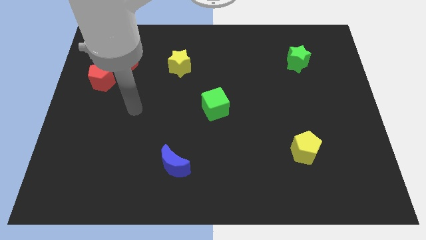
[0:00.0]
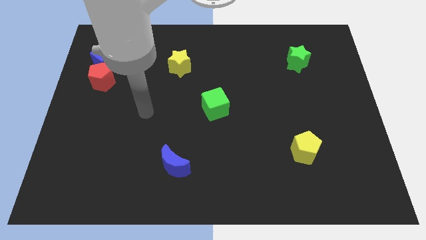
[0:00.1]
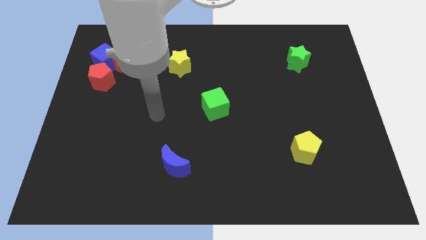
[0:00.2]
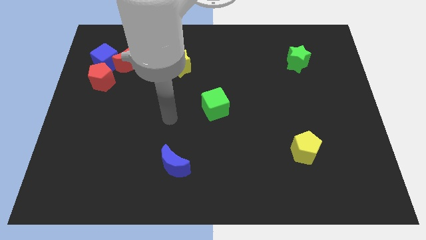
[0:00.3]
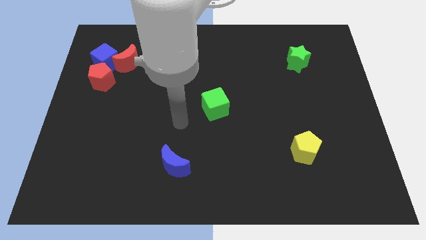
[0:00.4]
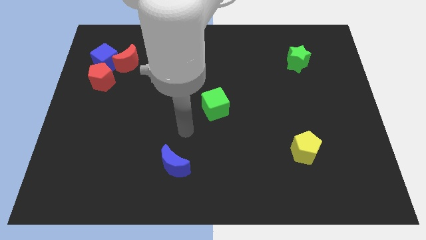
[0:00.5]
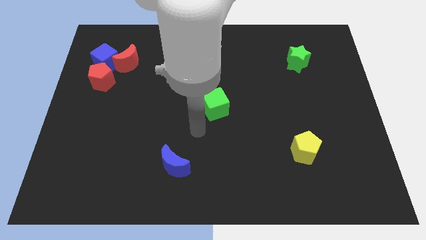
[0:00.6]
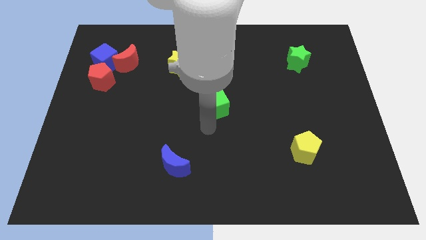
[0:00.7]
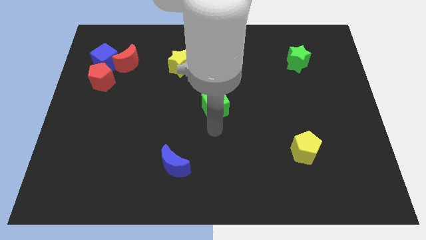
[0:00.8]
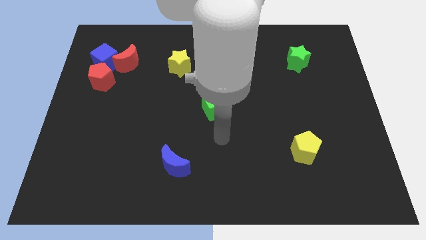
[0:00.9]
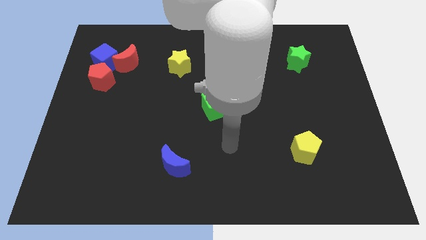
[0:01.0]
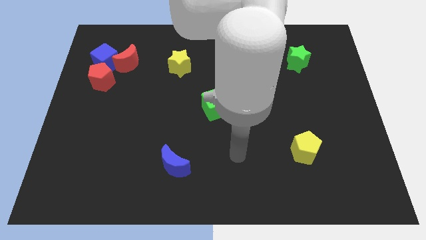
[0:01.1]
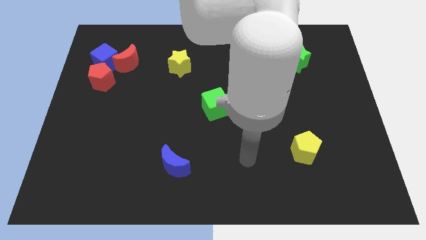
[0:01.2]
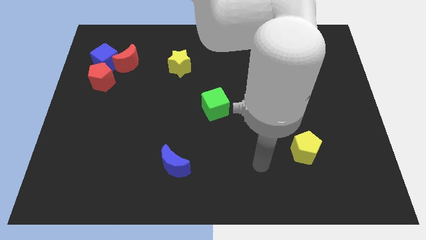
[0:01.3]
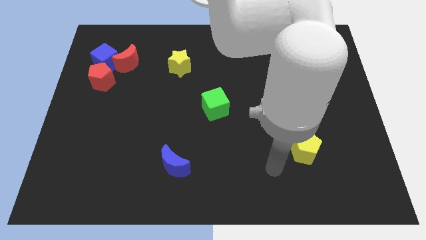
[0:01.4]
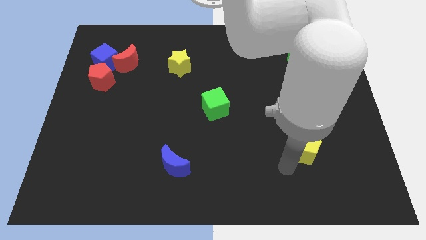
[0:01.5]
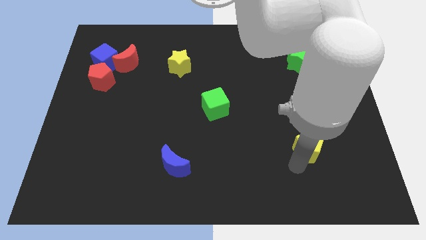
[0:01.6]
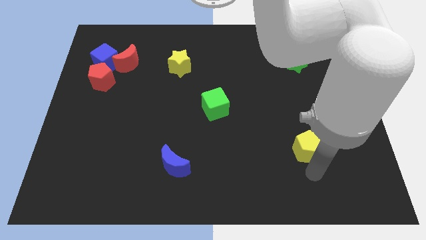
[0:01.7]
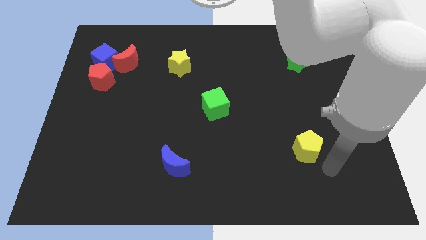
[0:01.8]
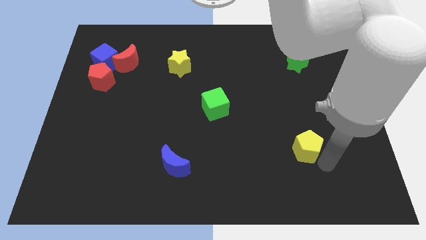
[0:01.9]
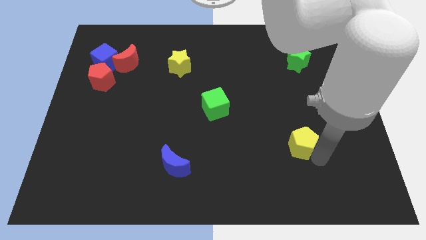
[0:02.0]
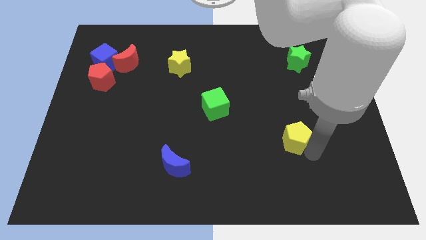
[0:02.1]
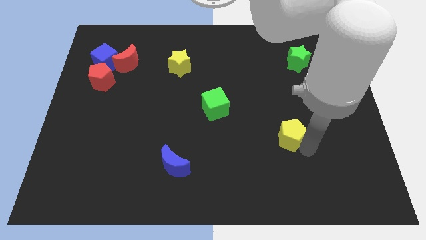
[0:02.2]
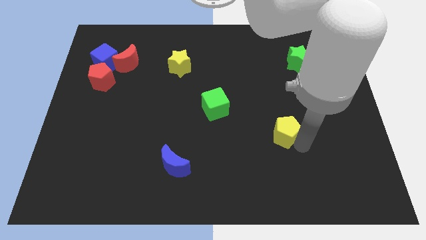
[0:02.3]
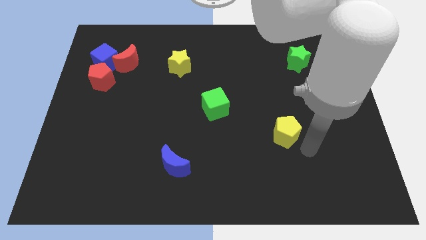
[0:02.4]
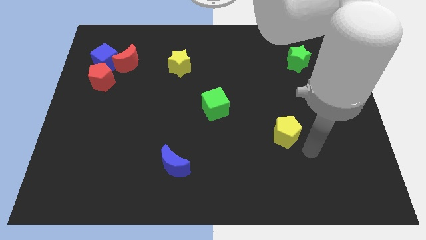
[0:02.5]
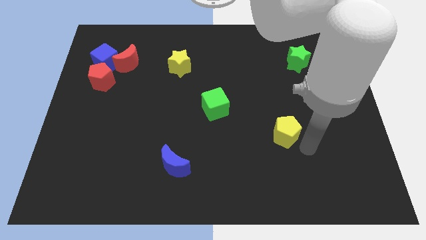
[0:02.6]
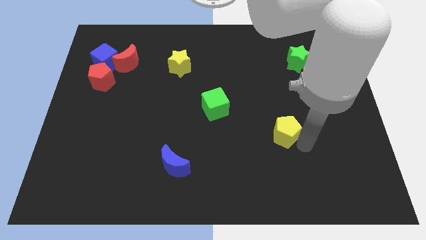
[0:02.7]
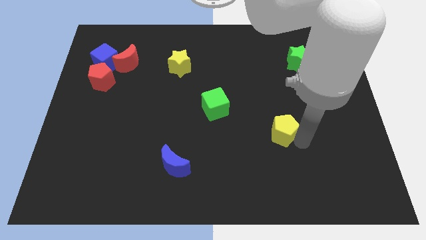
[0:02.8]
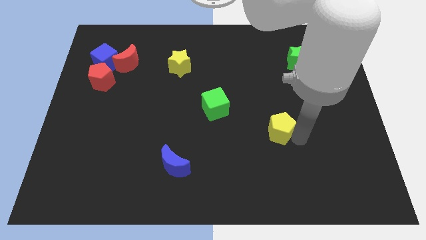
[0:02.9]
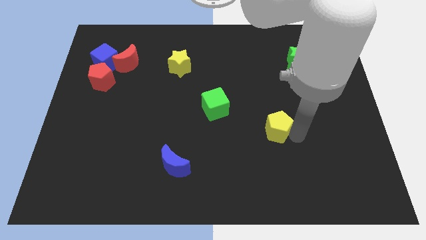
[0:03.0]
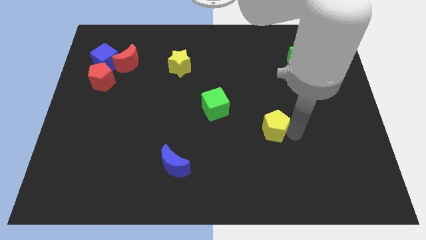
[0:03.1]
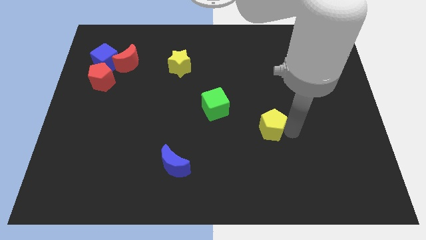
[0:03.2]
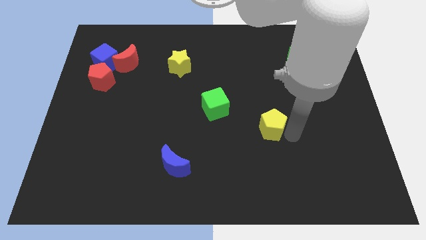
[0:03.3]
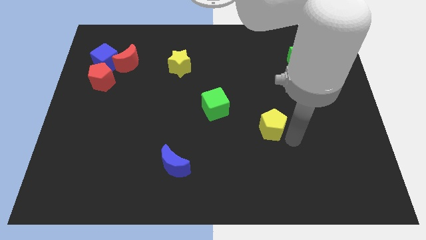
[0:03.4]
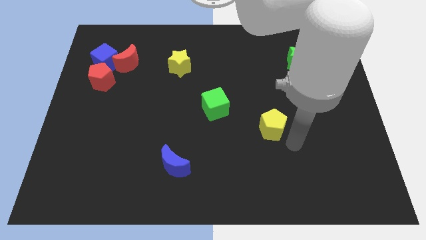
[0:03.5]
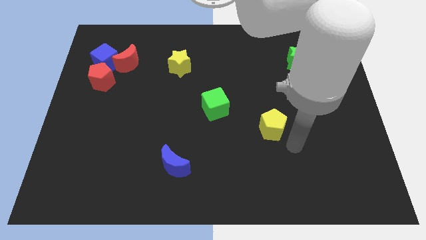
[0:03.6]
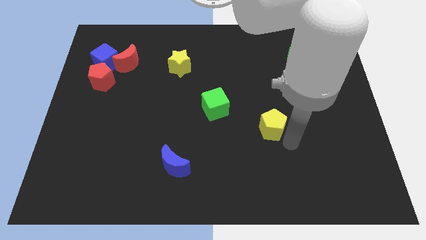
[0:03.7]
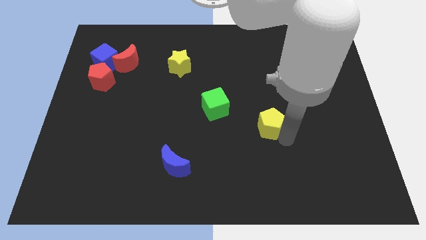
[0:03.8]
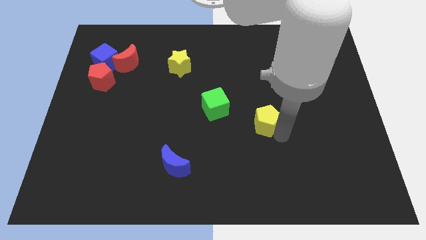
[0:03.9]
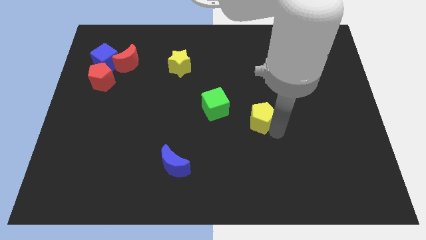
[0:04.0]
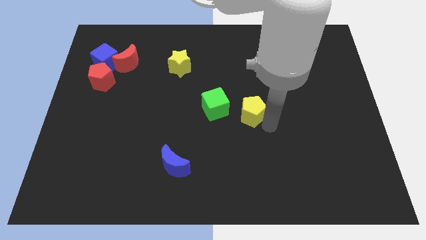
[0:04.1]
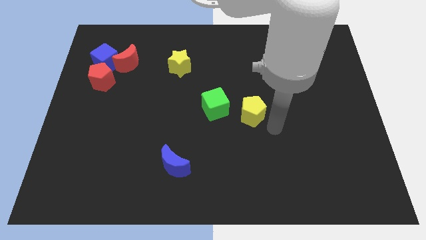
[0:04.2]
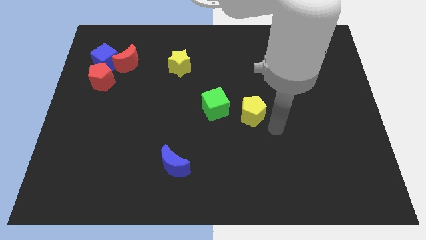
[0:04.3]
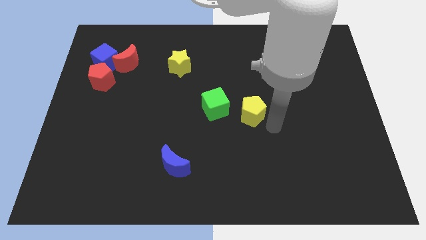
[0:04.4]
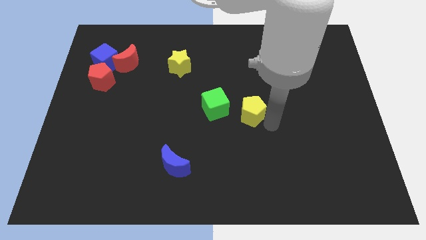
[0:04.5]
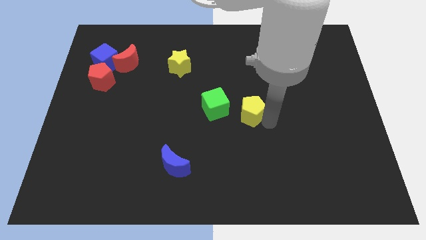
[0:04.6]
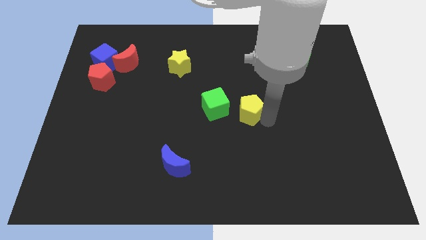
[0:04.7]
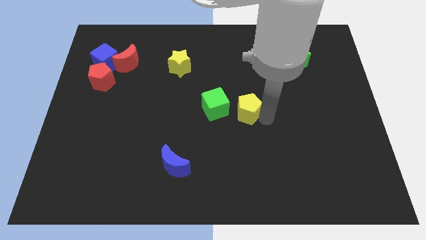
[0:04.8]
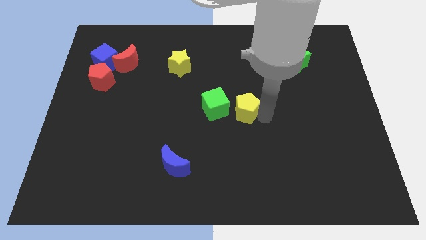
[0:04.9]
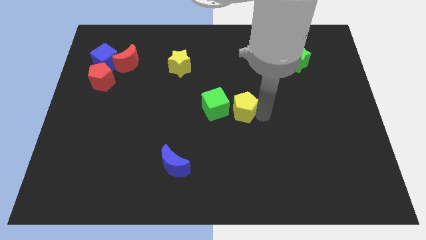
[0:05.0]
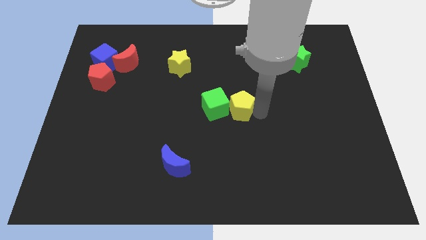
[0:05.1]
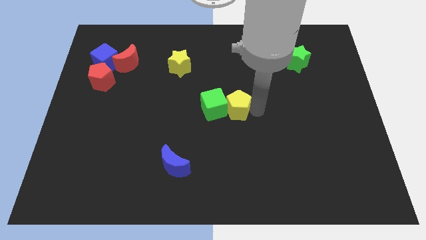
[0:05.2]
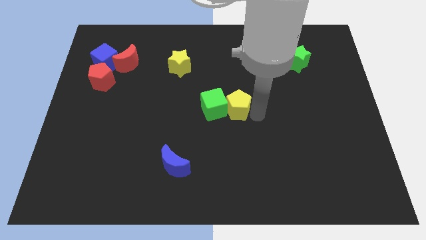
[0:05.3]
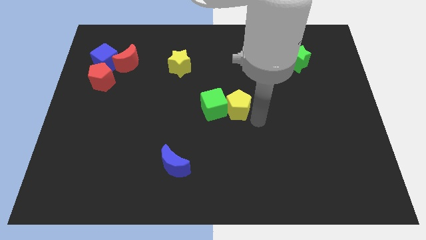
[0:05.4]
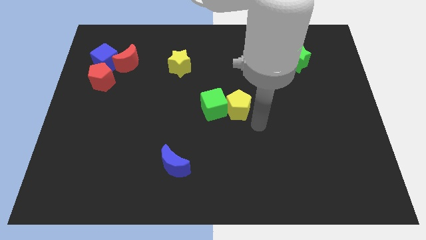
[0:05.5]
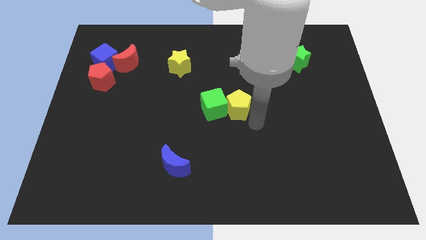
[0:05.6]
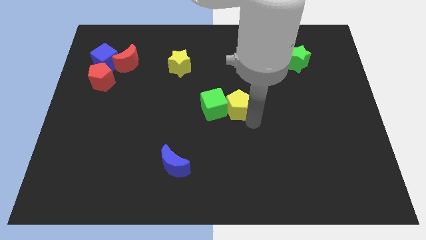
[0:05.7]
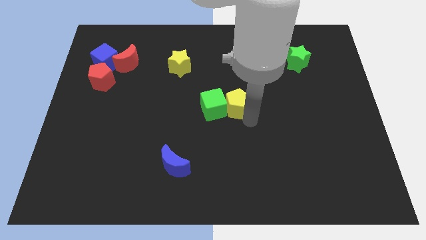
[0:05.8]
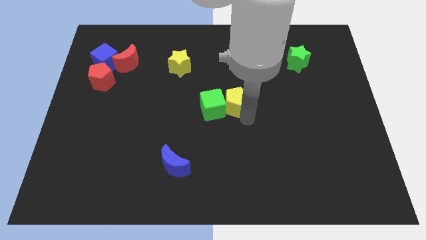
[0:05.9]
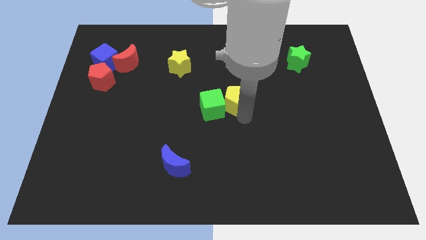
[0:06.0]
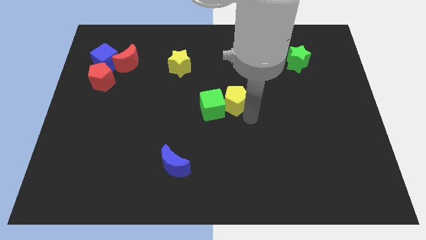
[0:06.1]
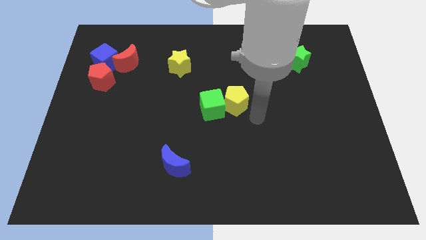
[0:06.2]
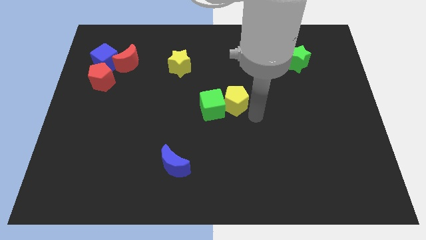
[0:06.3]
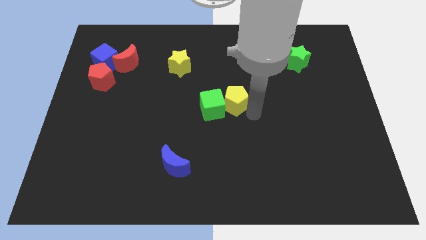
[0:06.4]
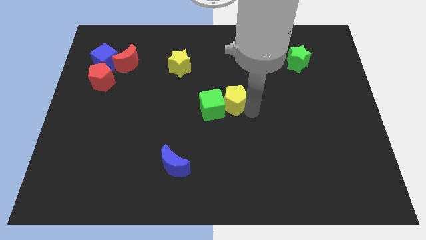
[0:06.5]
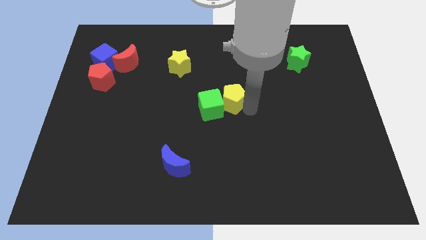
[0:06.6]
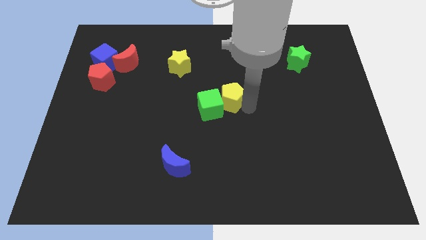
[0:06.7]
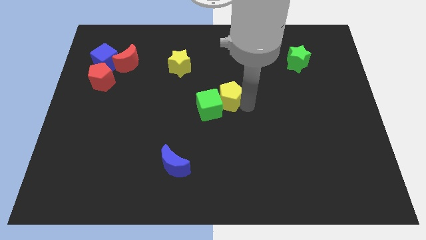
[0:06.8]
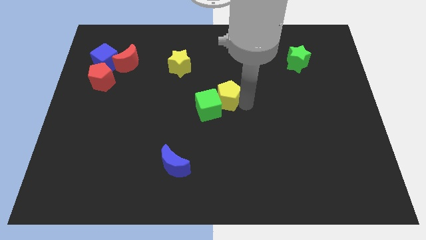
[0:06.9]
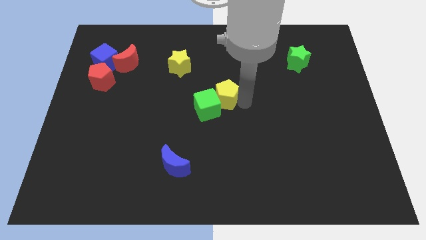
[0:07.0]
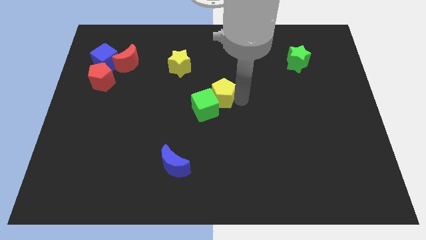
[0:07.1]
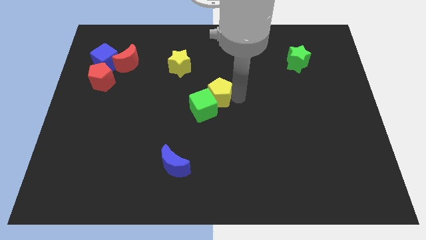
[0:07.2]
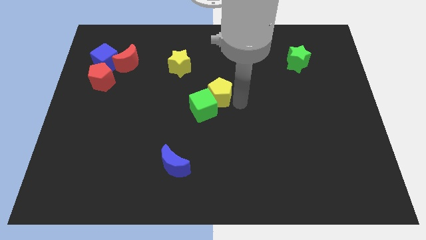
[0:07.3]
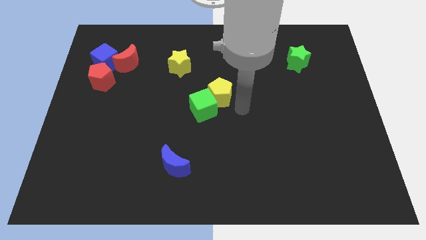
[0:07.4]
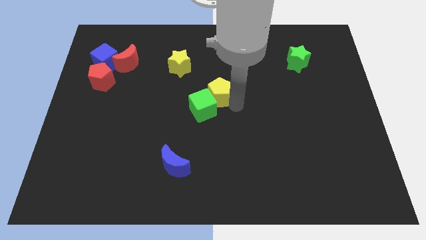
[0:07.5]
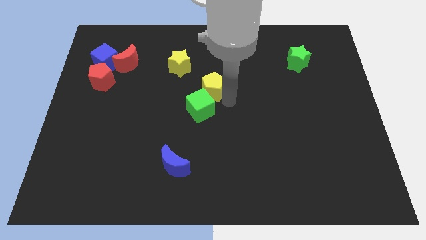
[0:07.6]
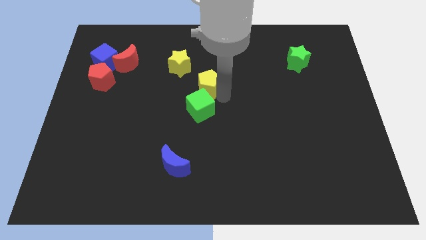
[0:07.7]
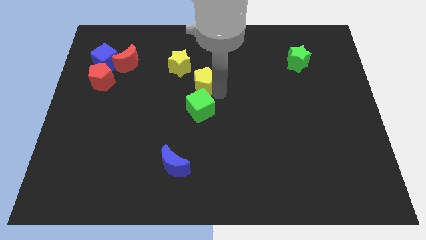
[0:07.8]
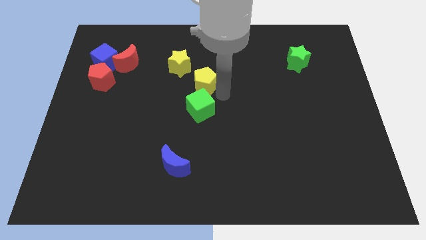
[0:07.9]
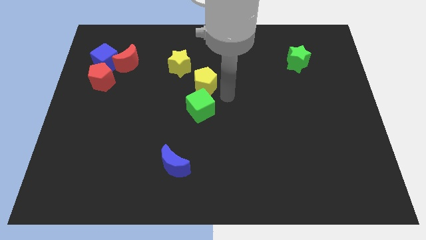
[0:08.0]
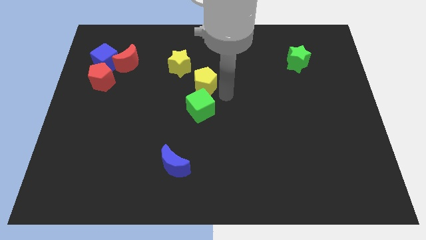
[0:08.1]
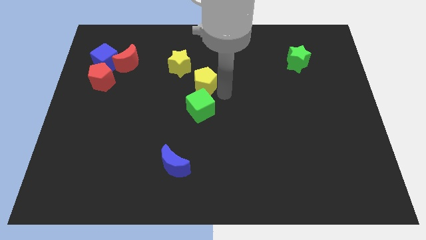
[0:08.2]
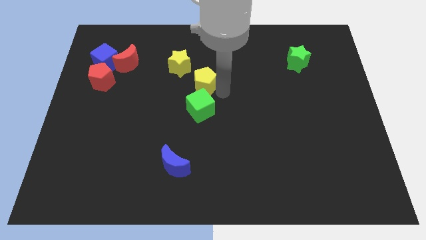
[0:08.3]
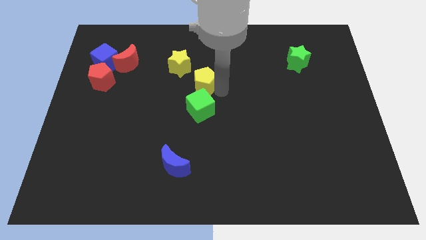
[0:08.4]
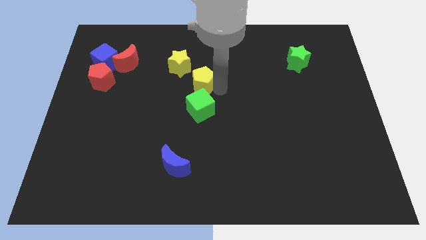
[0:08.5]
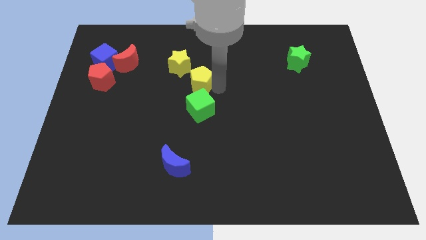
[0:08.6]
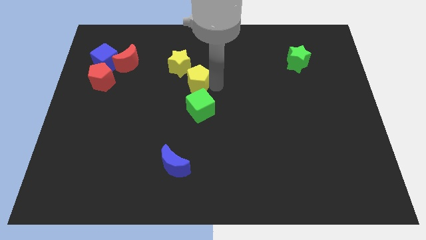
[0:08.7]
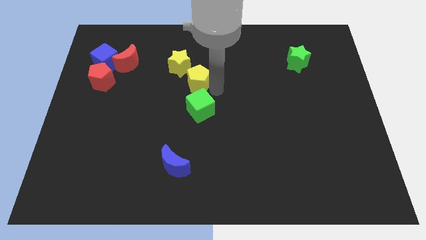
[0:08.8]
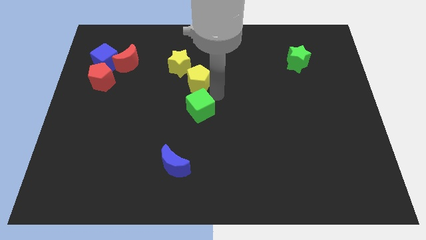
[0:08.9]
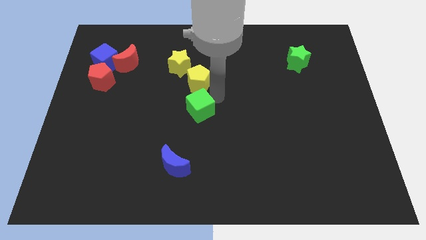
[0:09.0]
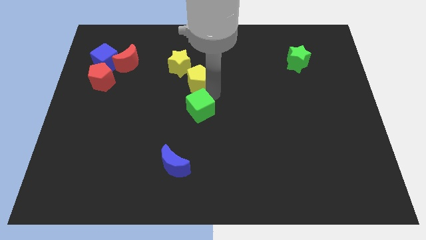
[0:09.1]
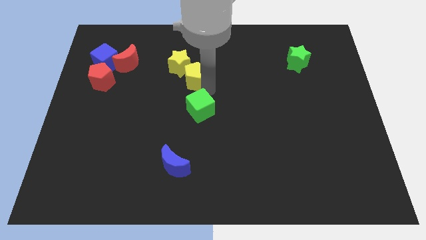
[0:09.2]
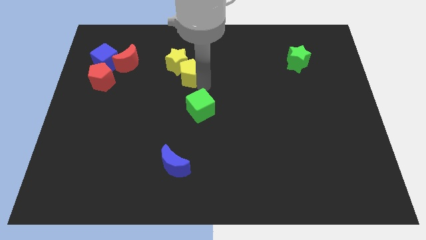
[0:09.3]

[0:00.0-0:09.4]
put the yellow pentagon towards the yellow star
